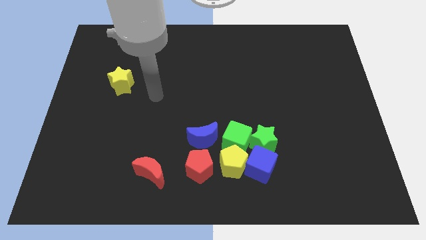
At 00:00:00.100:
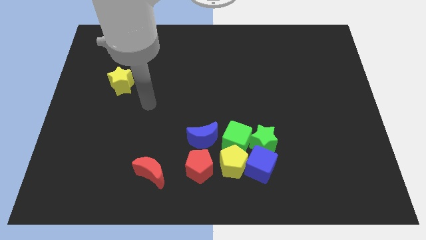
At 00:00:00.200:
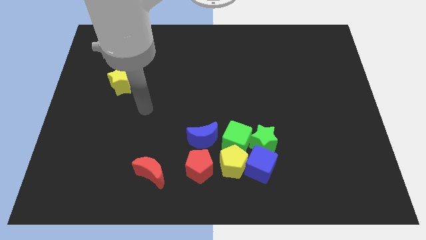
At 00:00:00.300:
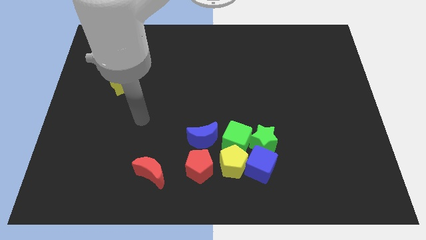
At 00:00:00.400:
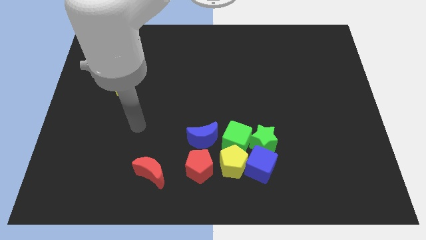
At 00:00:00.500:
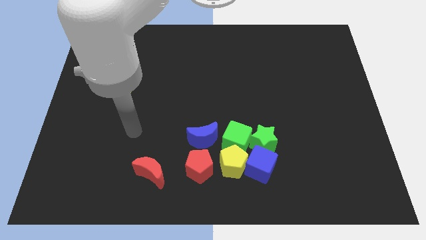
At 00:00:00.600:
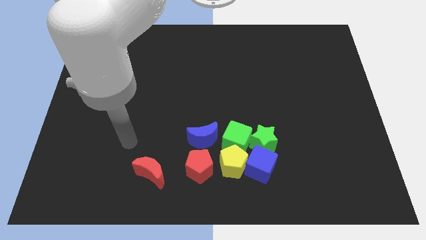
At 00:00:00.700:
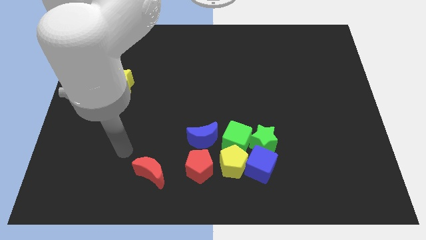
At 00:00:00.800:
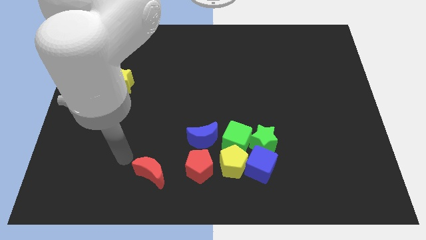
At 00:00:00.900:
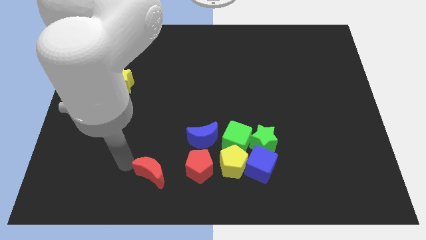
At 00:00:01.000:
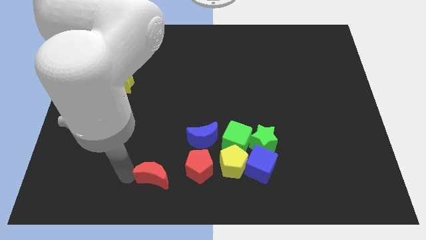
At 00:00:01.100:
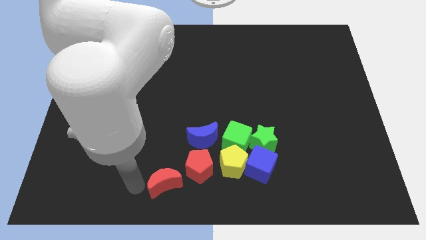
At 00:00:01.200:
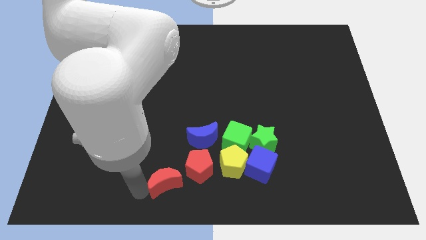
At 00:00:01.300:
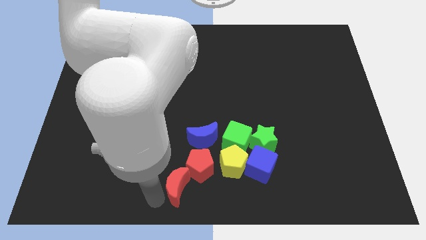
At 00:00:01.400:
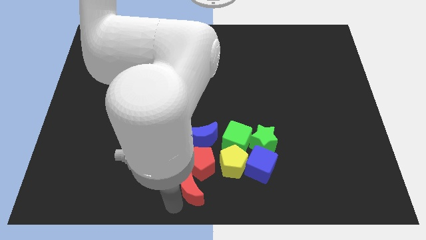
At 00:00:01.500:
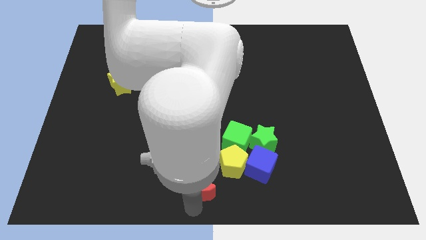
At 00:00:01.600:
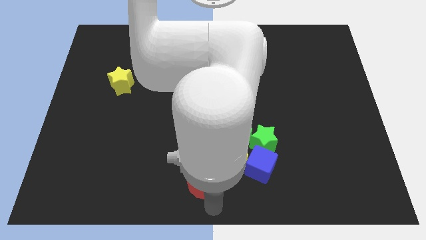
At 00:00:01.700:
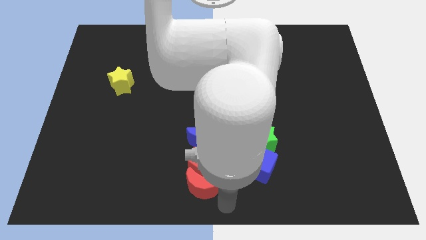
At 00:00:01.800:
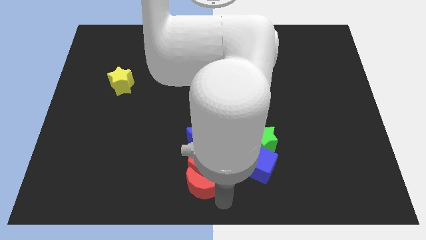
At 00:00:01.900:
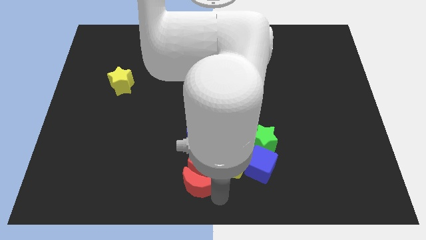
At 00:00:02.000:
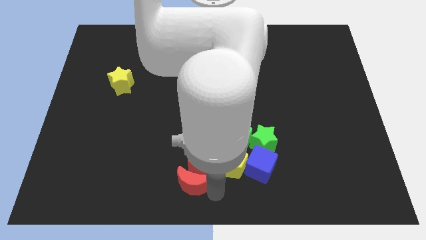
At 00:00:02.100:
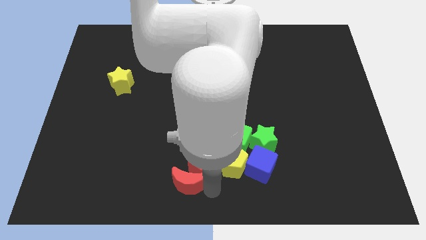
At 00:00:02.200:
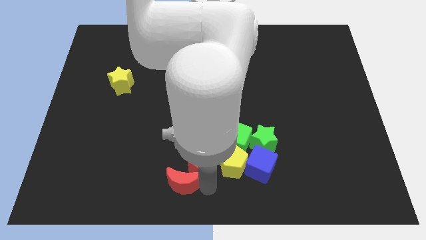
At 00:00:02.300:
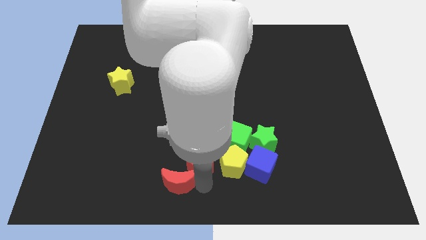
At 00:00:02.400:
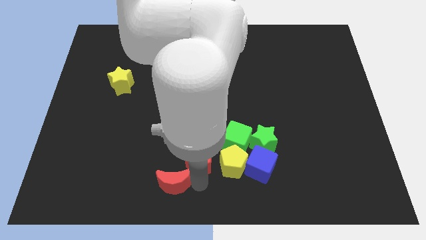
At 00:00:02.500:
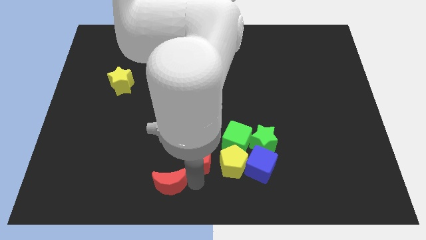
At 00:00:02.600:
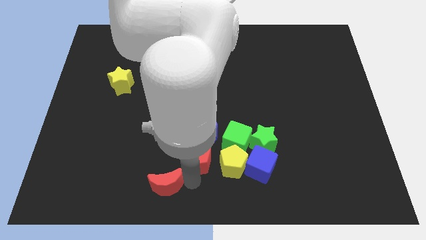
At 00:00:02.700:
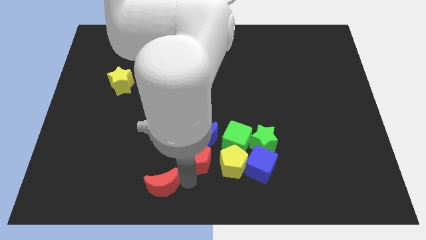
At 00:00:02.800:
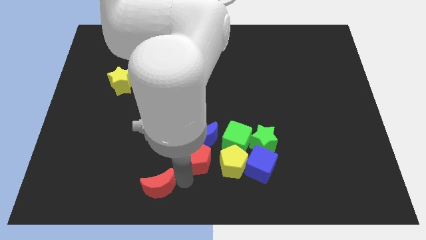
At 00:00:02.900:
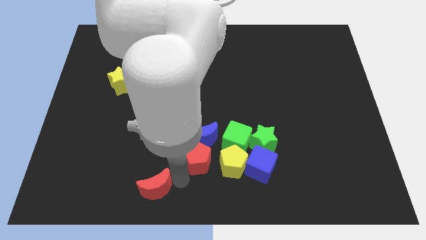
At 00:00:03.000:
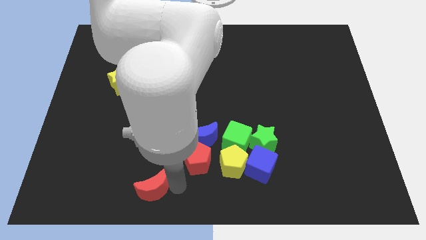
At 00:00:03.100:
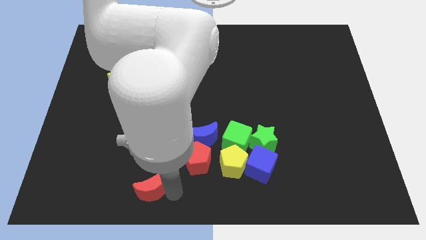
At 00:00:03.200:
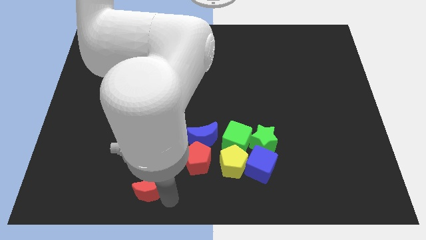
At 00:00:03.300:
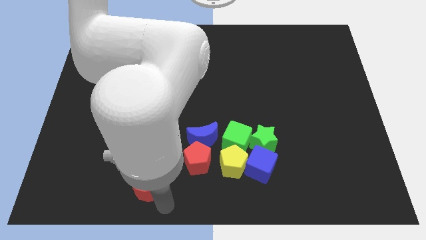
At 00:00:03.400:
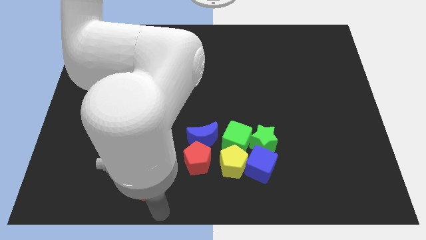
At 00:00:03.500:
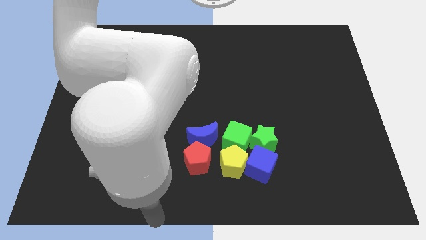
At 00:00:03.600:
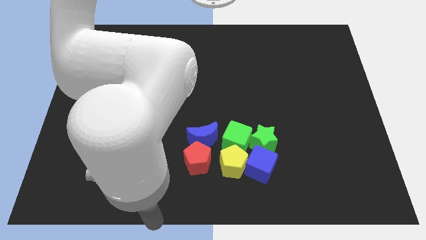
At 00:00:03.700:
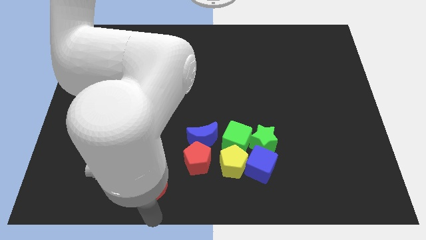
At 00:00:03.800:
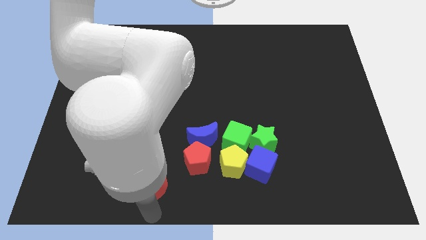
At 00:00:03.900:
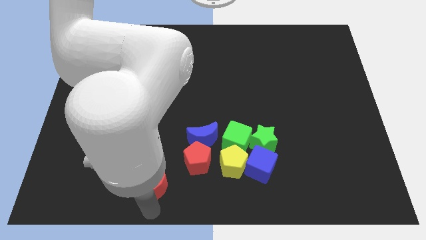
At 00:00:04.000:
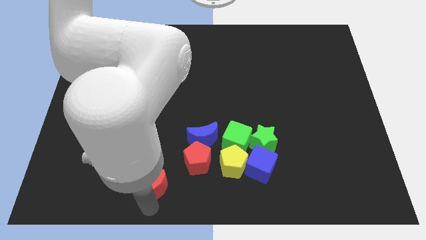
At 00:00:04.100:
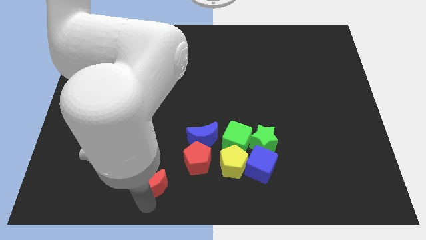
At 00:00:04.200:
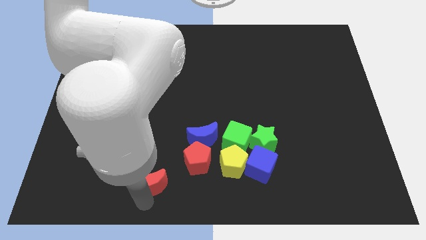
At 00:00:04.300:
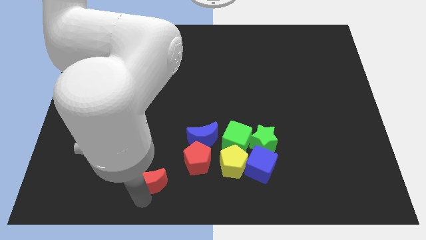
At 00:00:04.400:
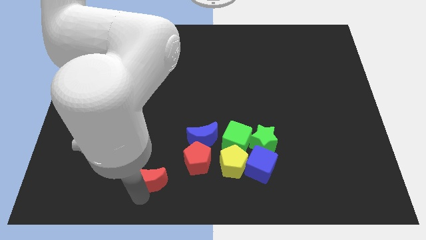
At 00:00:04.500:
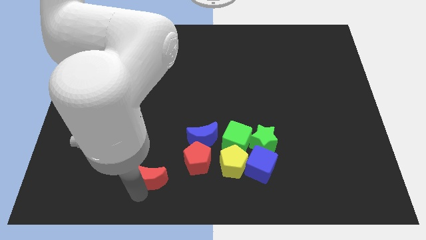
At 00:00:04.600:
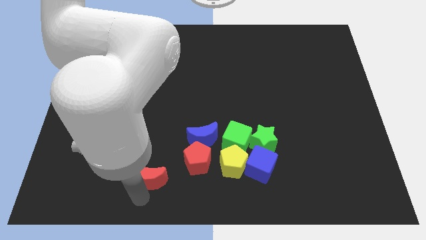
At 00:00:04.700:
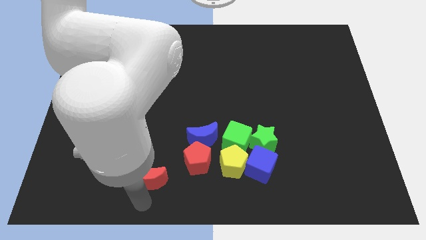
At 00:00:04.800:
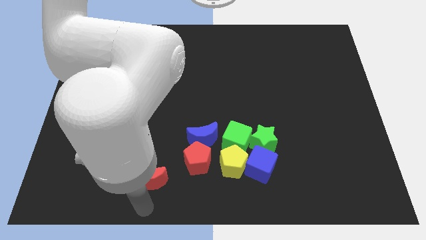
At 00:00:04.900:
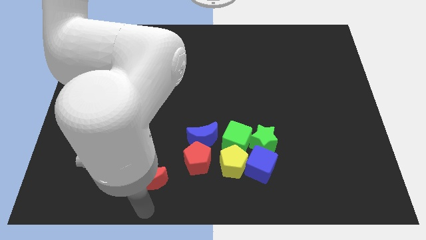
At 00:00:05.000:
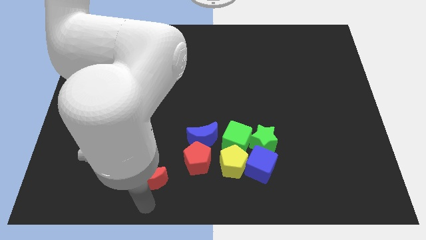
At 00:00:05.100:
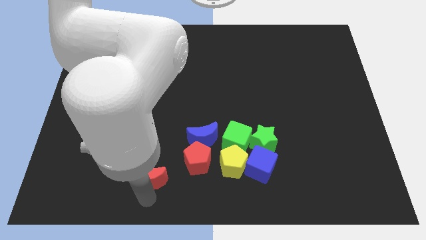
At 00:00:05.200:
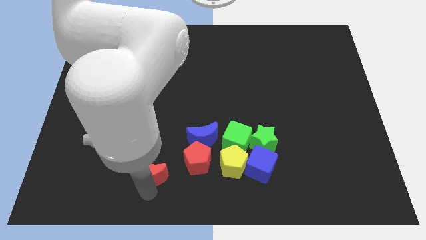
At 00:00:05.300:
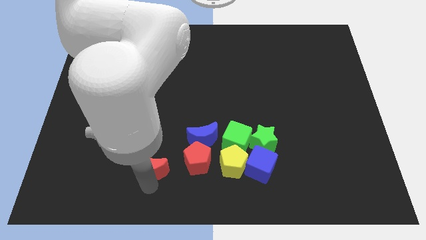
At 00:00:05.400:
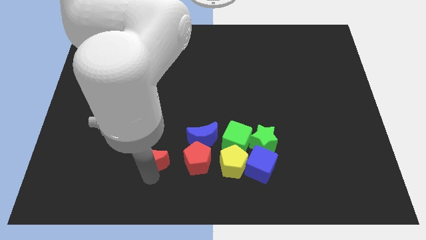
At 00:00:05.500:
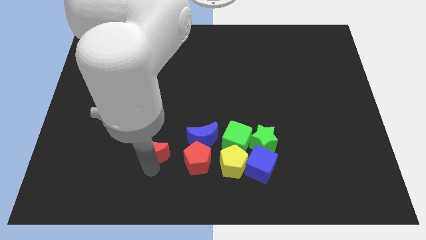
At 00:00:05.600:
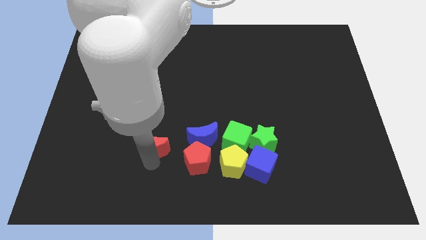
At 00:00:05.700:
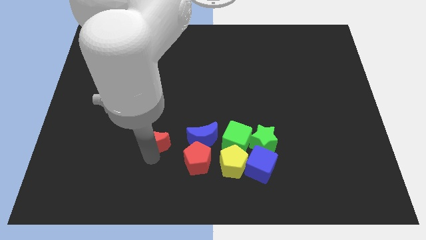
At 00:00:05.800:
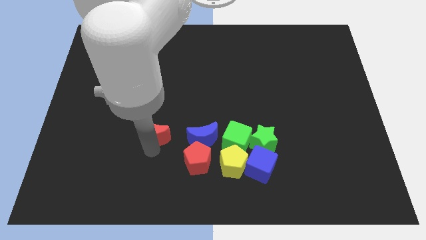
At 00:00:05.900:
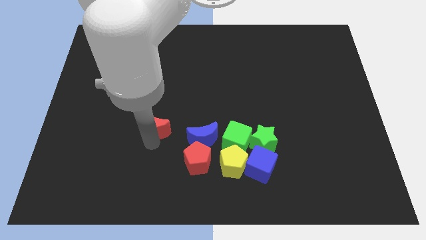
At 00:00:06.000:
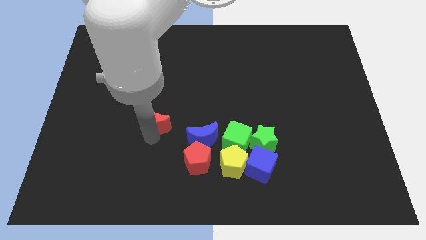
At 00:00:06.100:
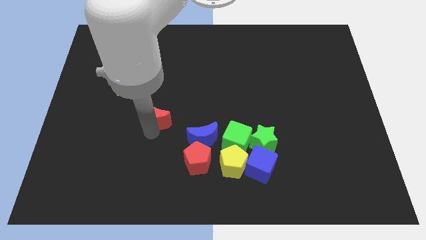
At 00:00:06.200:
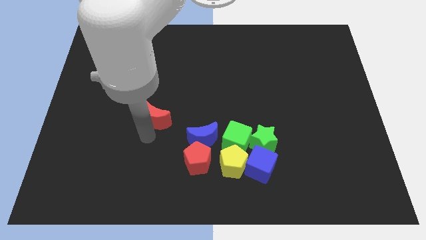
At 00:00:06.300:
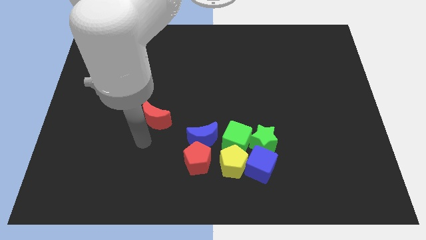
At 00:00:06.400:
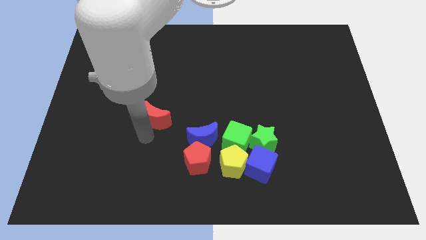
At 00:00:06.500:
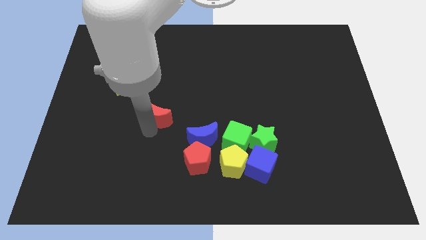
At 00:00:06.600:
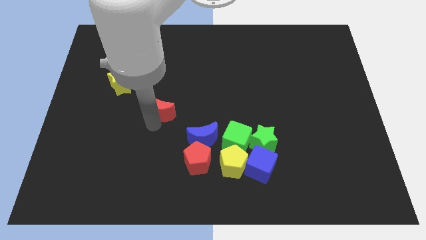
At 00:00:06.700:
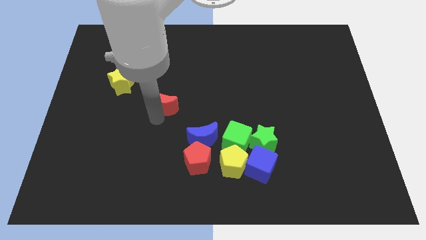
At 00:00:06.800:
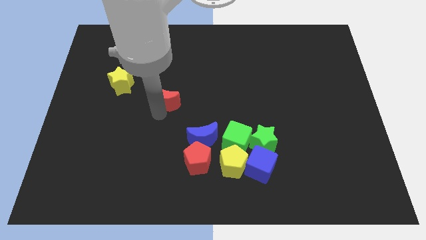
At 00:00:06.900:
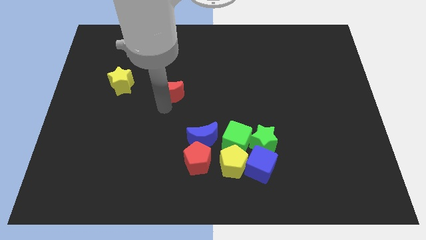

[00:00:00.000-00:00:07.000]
push the red moon up

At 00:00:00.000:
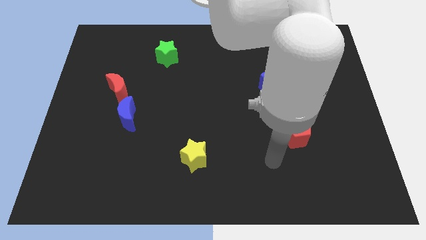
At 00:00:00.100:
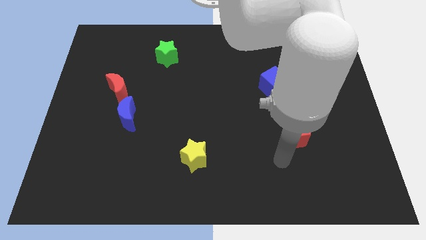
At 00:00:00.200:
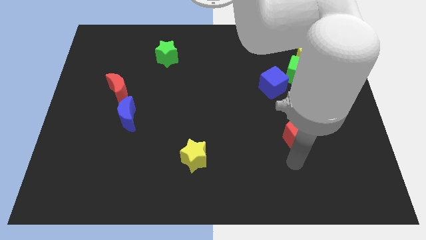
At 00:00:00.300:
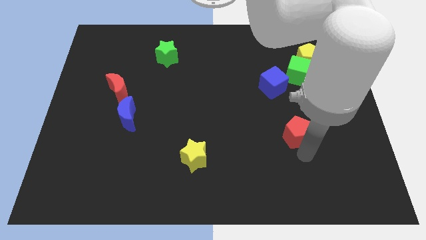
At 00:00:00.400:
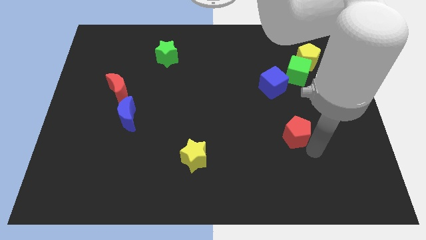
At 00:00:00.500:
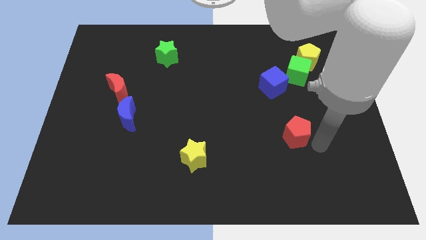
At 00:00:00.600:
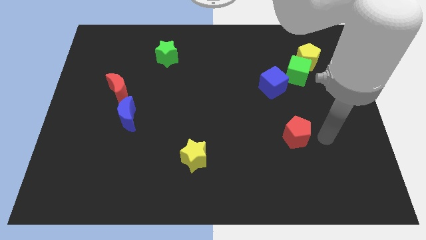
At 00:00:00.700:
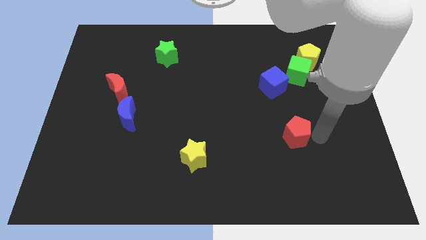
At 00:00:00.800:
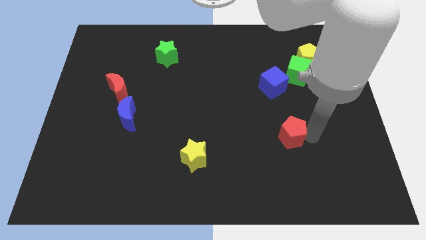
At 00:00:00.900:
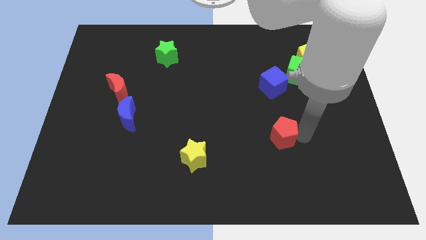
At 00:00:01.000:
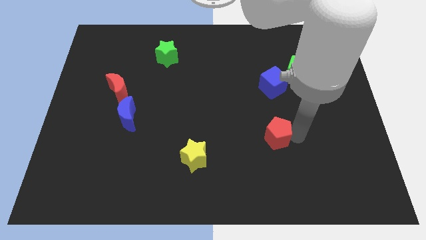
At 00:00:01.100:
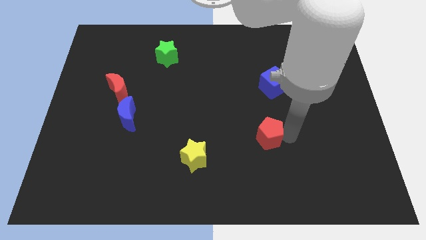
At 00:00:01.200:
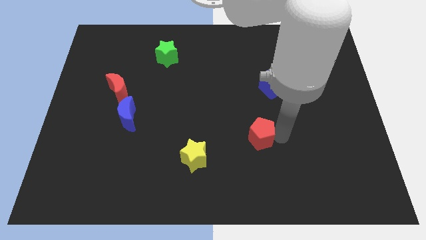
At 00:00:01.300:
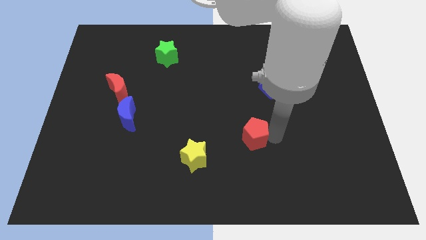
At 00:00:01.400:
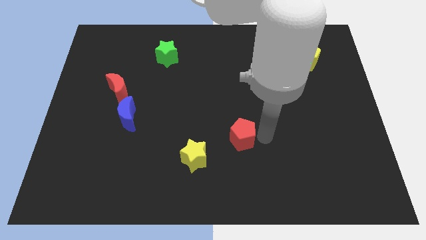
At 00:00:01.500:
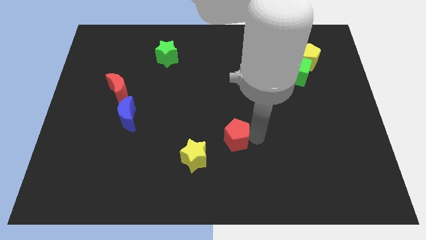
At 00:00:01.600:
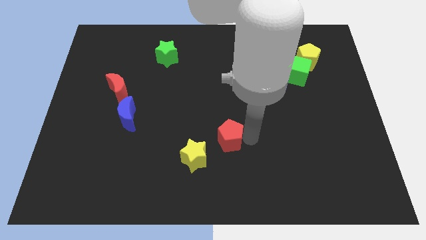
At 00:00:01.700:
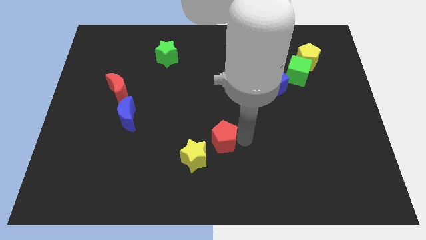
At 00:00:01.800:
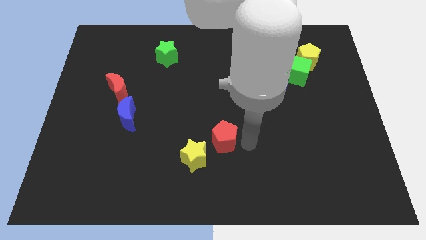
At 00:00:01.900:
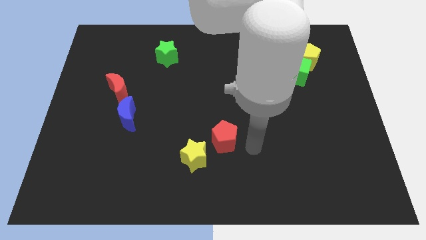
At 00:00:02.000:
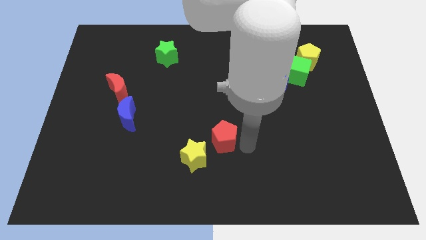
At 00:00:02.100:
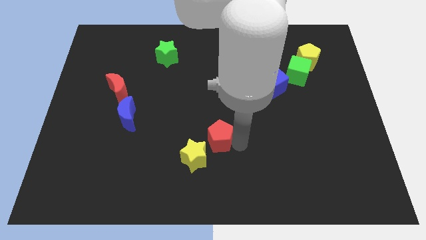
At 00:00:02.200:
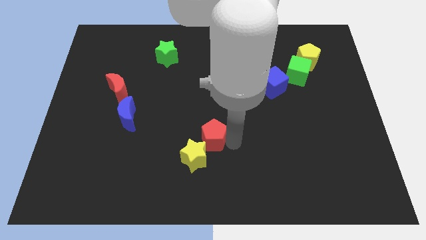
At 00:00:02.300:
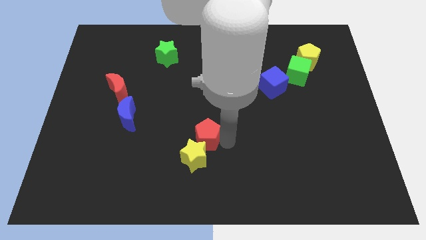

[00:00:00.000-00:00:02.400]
push the red pentagon left
